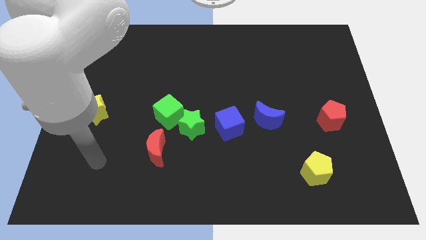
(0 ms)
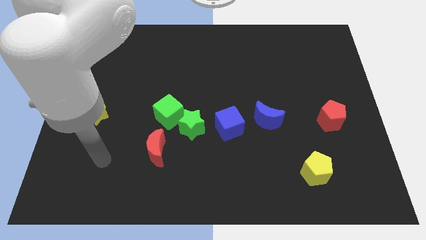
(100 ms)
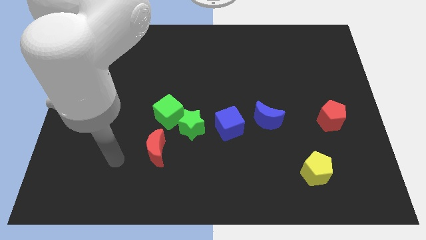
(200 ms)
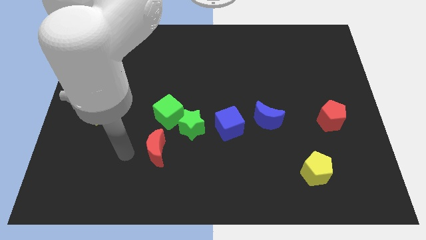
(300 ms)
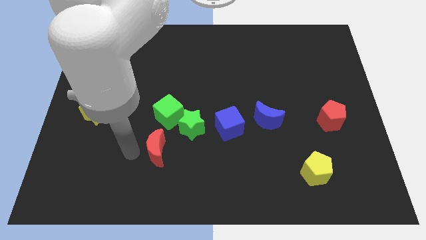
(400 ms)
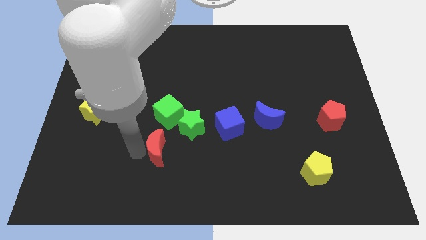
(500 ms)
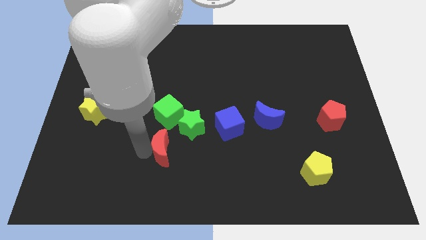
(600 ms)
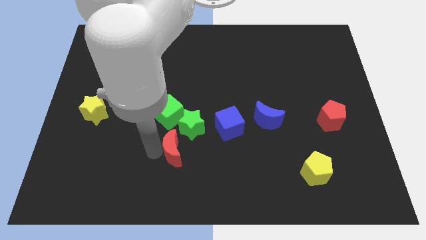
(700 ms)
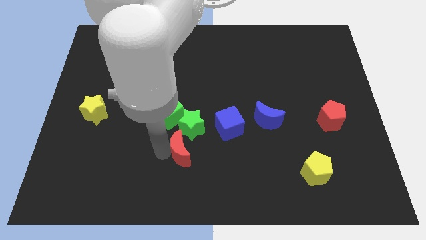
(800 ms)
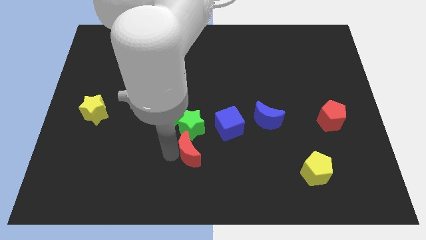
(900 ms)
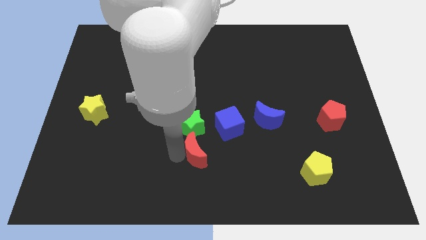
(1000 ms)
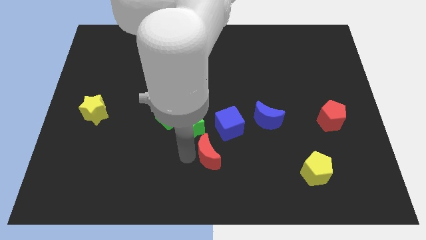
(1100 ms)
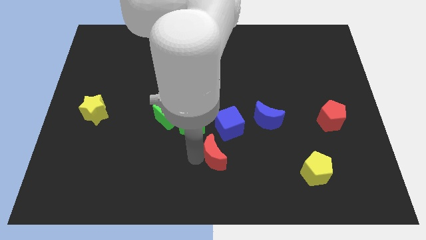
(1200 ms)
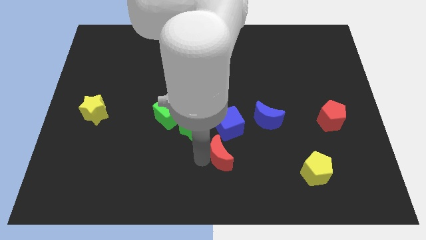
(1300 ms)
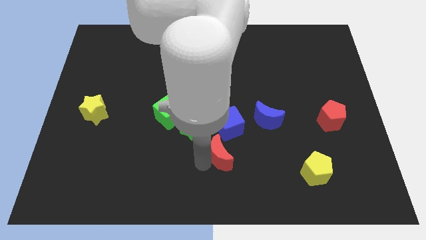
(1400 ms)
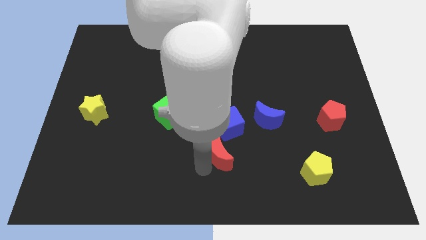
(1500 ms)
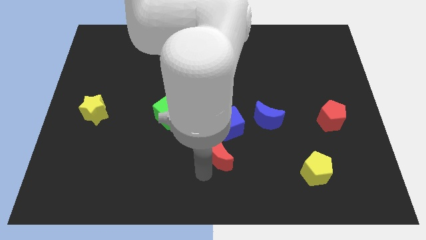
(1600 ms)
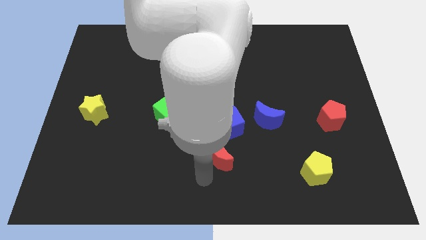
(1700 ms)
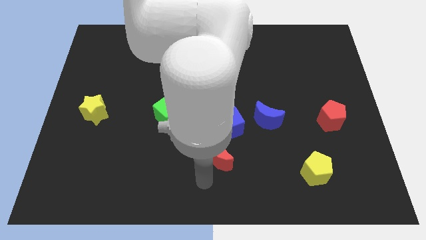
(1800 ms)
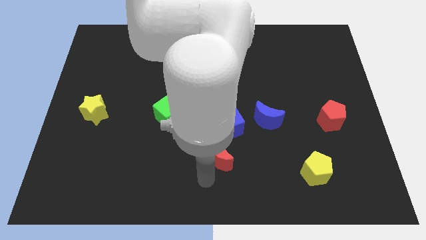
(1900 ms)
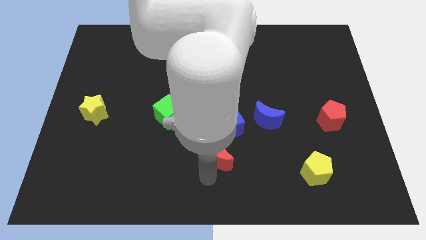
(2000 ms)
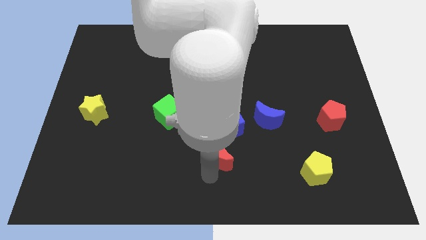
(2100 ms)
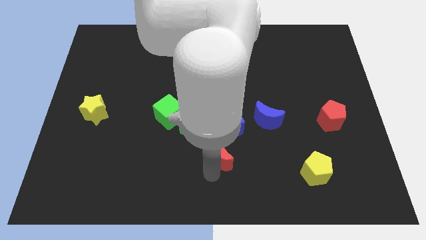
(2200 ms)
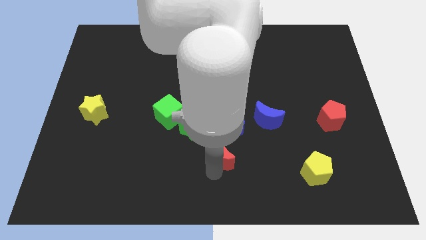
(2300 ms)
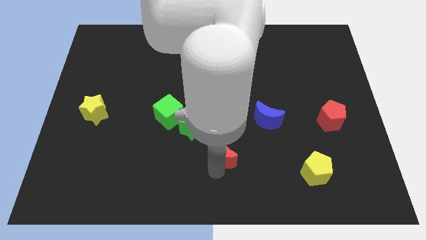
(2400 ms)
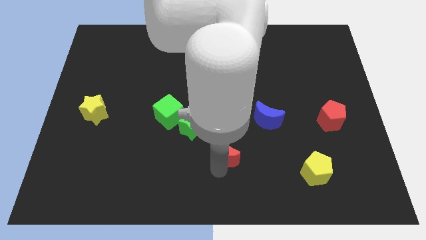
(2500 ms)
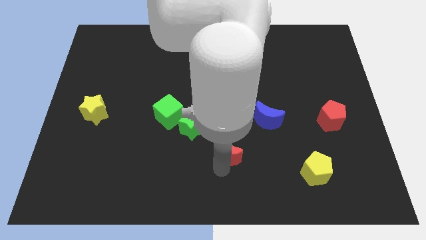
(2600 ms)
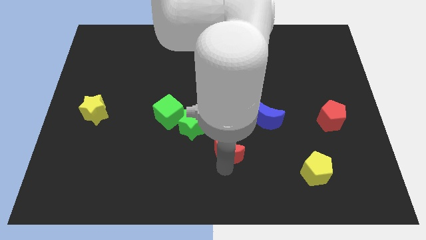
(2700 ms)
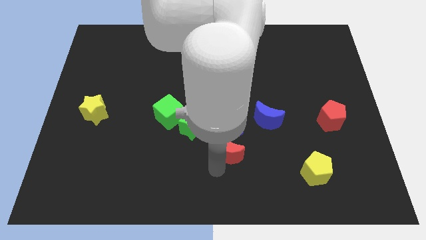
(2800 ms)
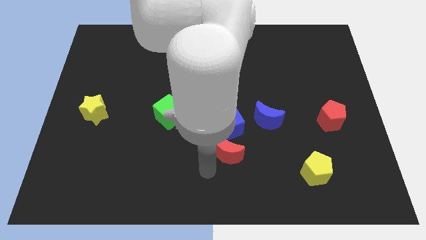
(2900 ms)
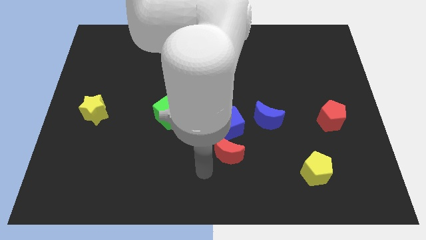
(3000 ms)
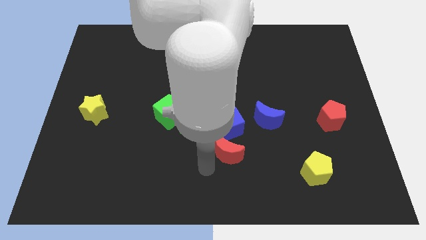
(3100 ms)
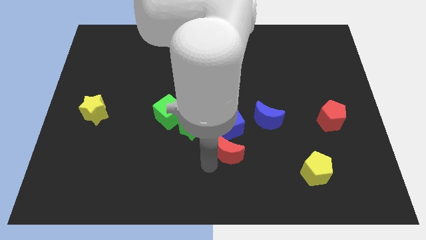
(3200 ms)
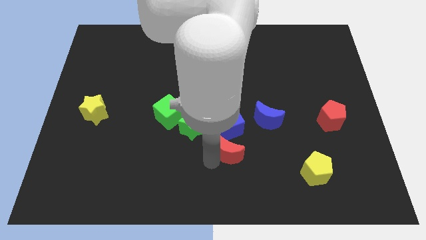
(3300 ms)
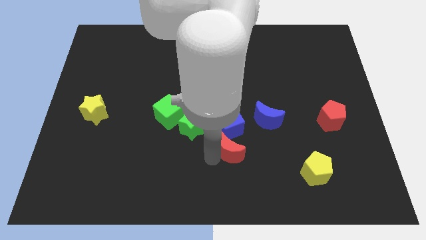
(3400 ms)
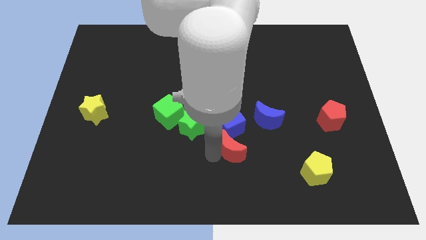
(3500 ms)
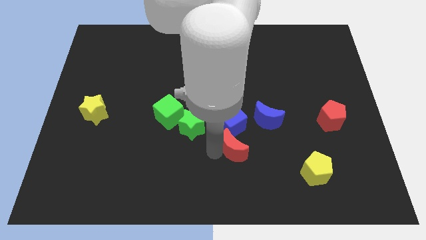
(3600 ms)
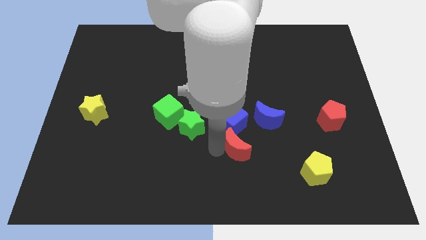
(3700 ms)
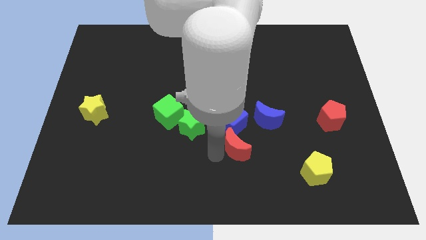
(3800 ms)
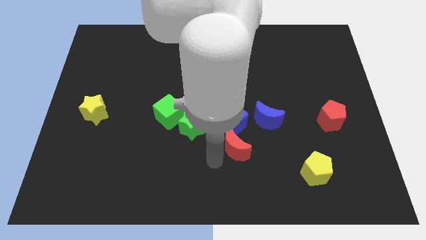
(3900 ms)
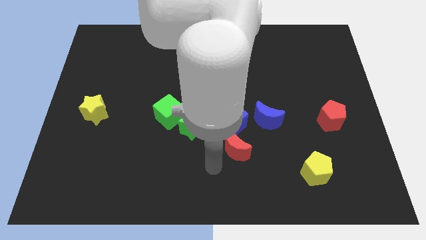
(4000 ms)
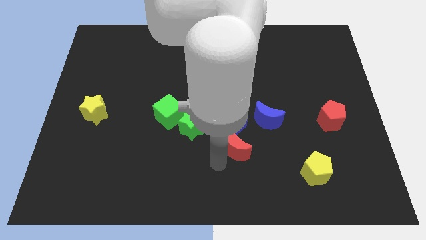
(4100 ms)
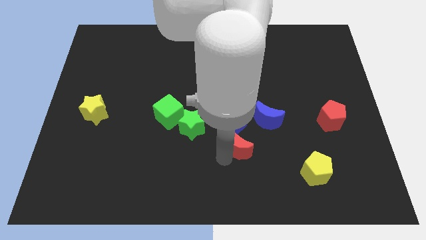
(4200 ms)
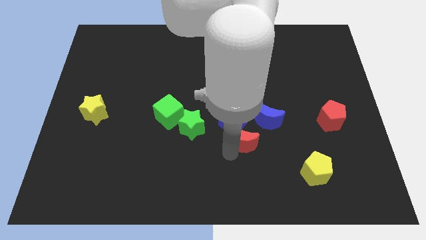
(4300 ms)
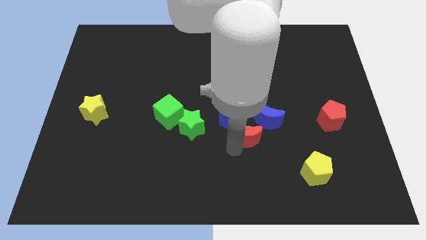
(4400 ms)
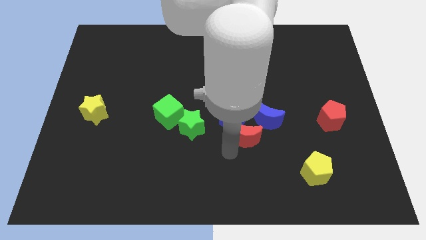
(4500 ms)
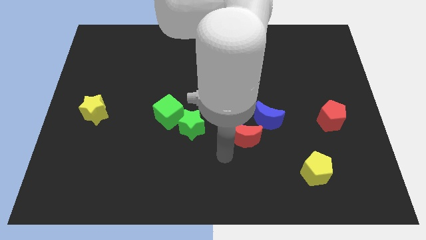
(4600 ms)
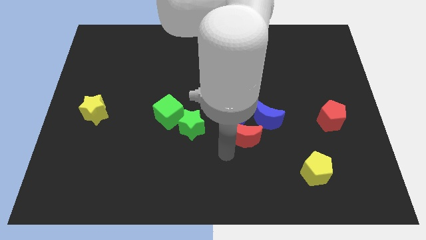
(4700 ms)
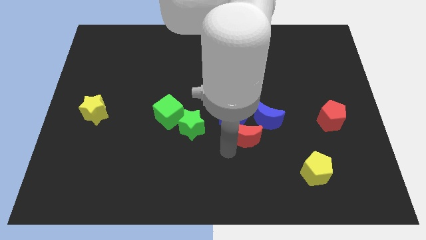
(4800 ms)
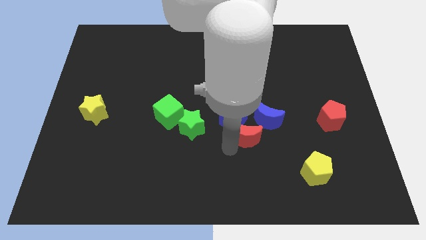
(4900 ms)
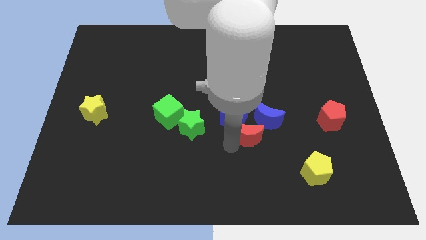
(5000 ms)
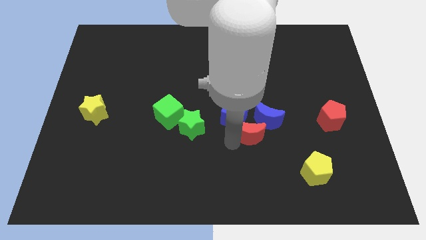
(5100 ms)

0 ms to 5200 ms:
put the red moon to the blue moon

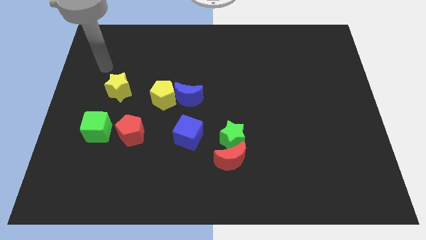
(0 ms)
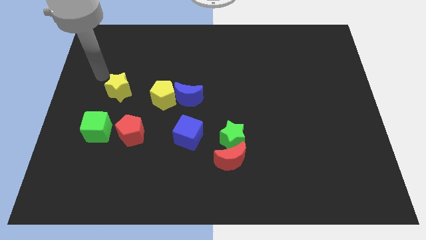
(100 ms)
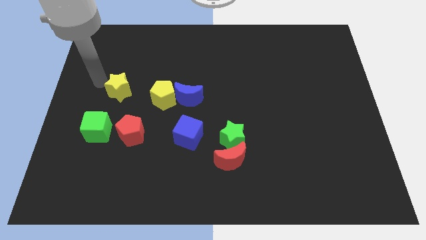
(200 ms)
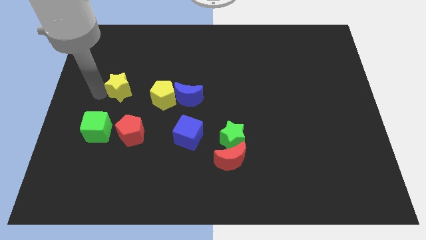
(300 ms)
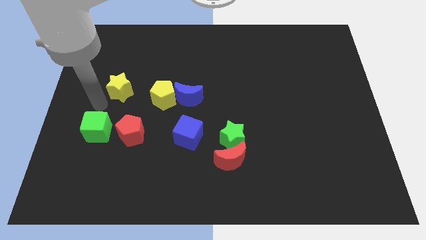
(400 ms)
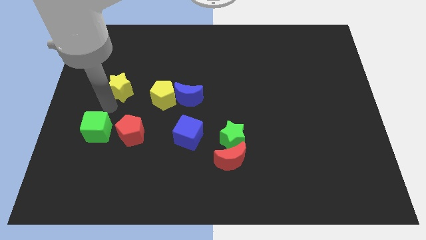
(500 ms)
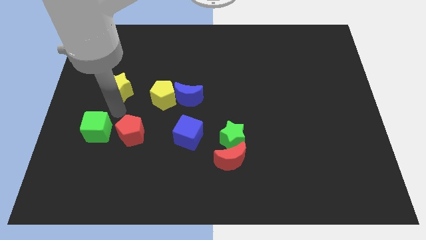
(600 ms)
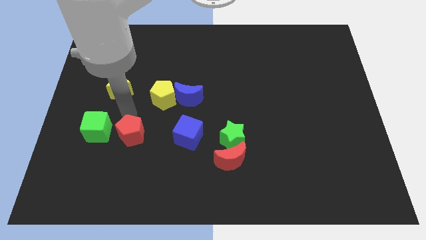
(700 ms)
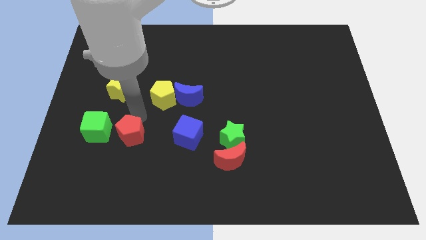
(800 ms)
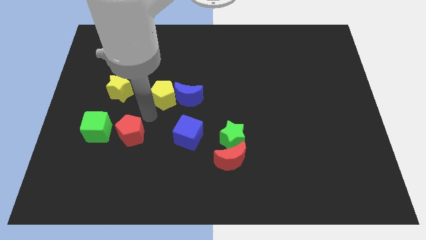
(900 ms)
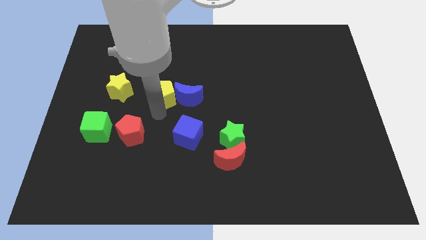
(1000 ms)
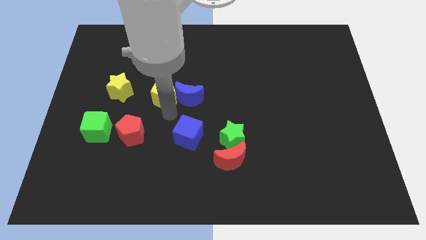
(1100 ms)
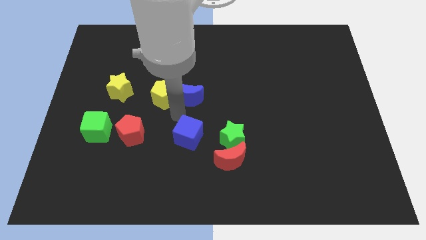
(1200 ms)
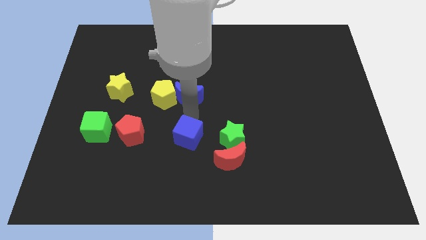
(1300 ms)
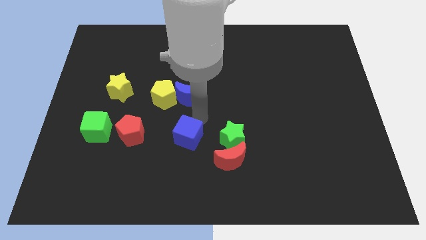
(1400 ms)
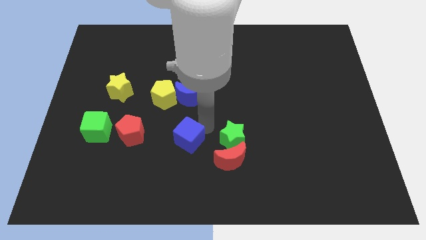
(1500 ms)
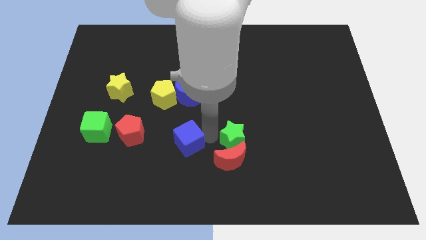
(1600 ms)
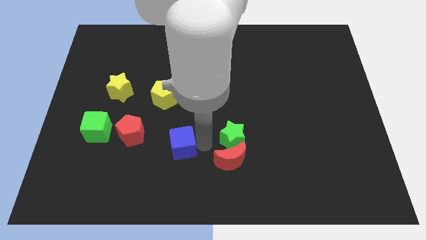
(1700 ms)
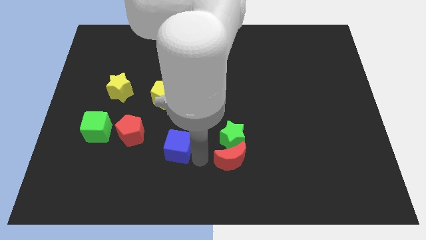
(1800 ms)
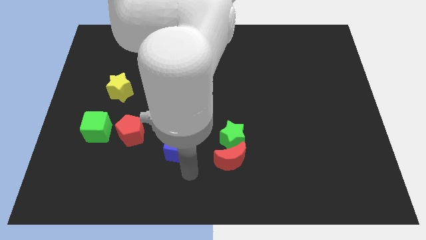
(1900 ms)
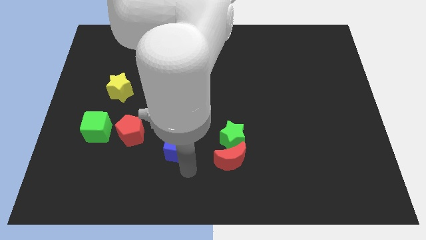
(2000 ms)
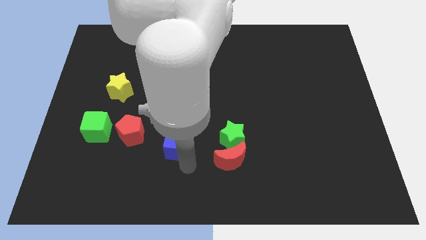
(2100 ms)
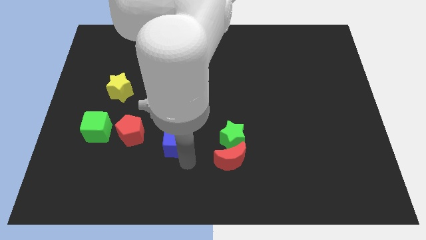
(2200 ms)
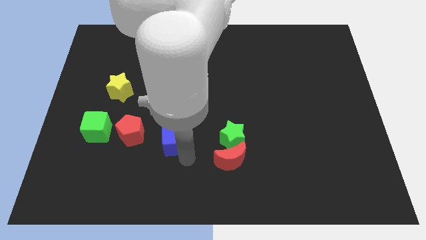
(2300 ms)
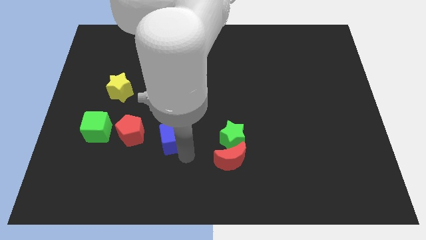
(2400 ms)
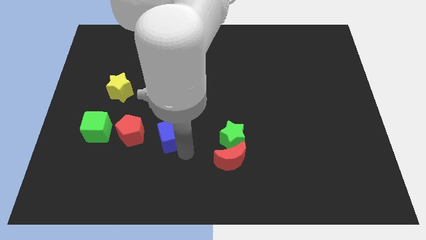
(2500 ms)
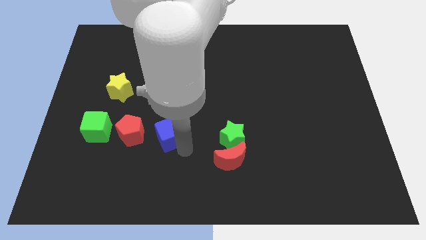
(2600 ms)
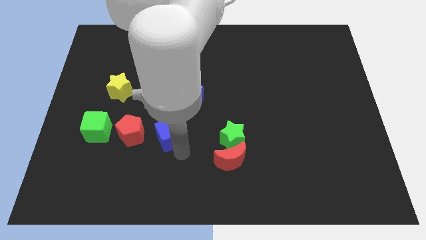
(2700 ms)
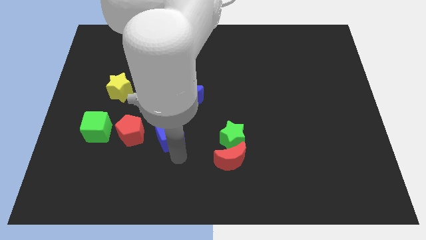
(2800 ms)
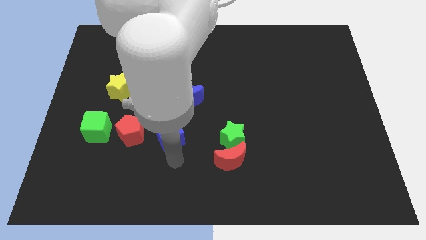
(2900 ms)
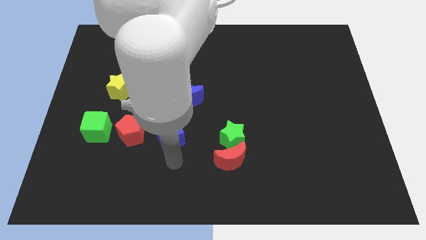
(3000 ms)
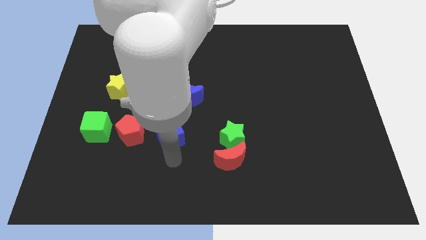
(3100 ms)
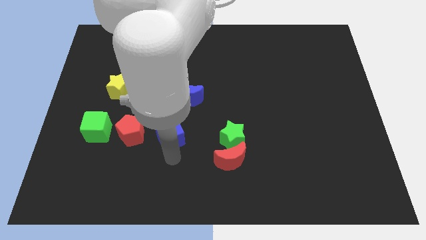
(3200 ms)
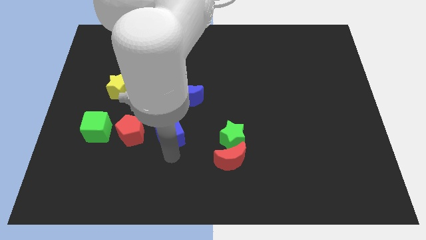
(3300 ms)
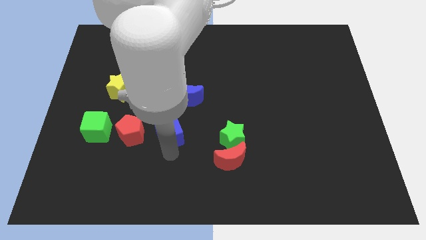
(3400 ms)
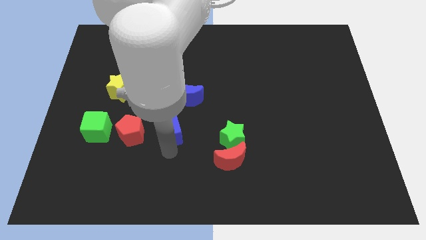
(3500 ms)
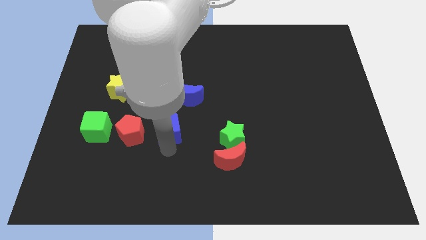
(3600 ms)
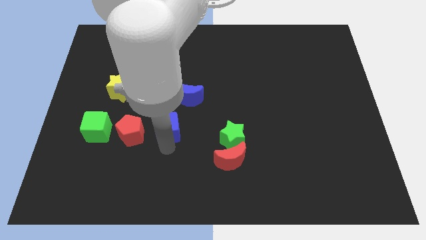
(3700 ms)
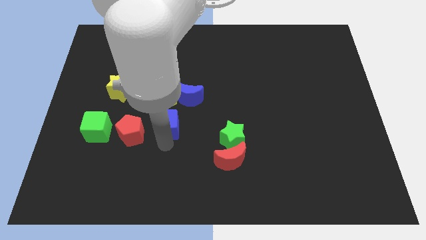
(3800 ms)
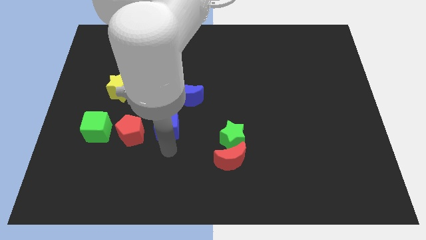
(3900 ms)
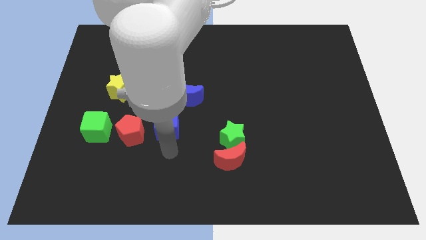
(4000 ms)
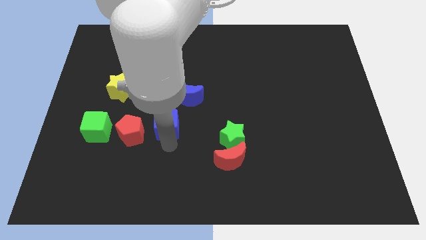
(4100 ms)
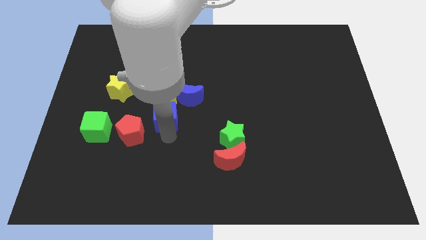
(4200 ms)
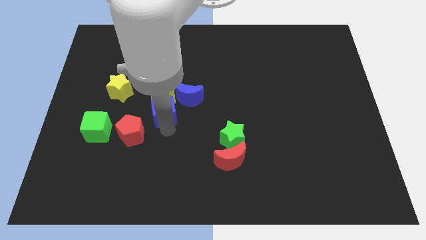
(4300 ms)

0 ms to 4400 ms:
push the blue cube to the yellow pentagon
